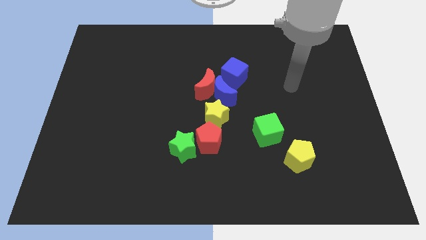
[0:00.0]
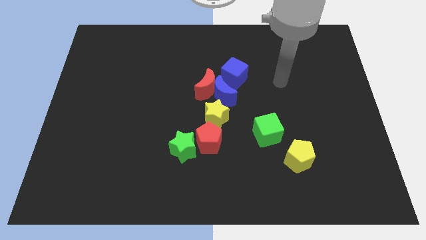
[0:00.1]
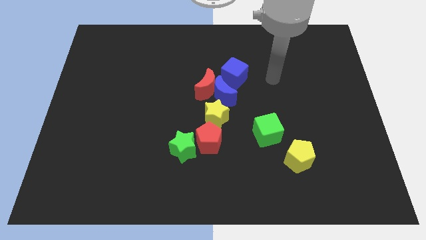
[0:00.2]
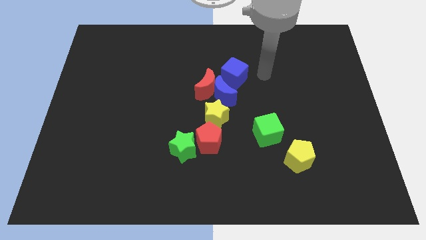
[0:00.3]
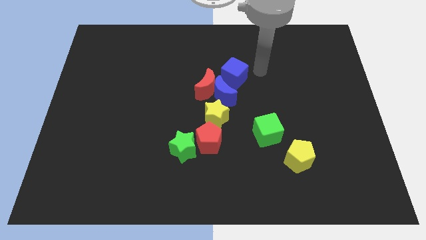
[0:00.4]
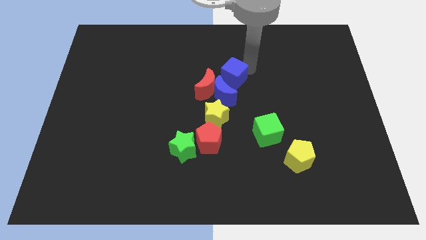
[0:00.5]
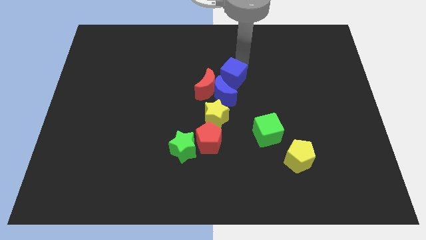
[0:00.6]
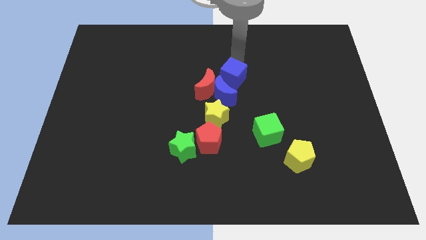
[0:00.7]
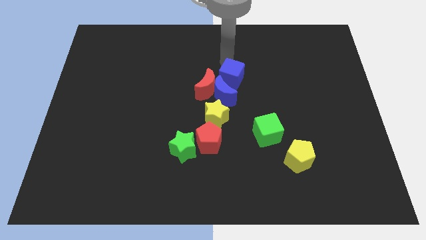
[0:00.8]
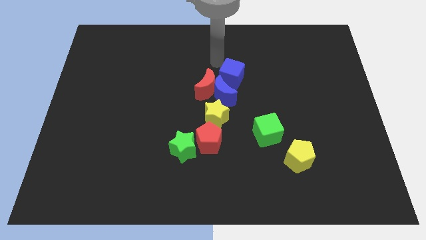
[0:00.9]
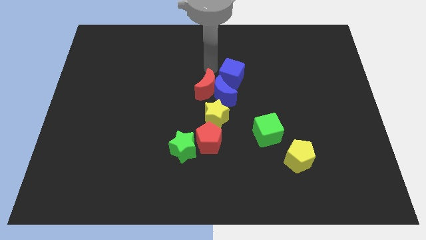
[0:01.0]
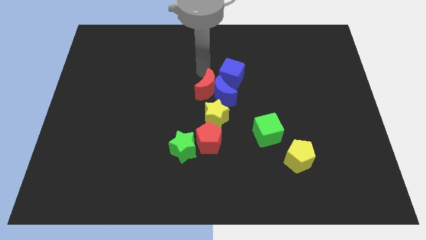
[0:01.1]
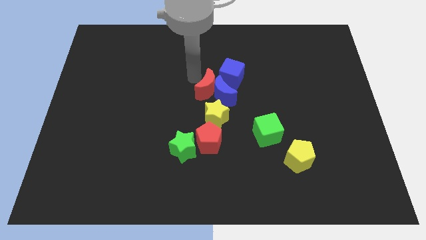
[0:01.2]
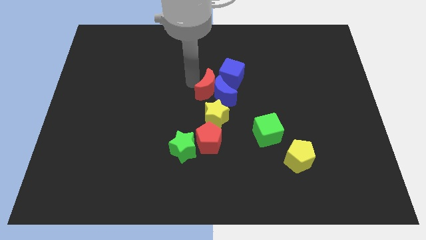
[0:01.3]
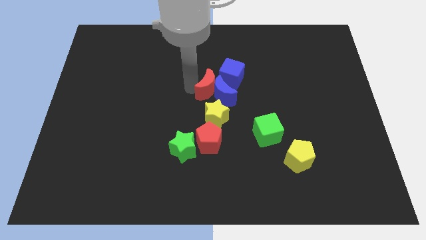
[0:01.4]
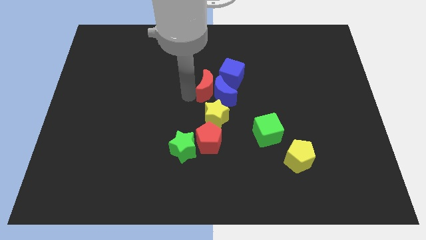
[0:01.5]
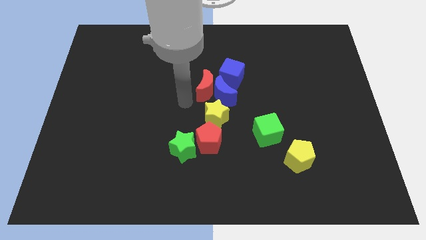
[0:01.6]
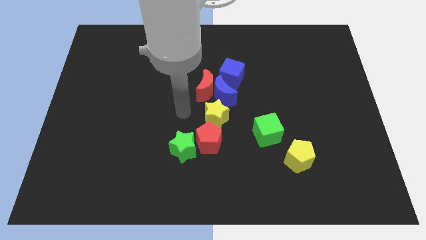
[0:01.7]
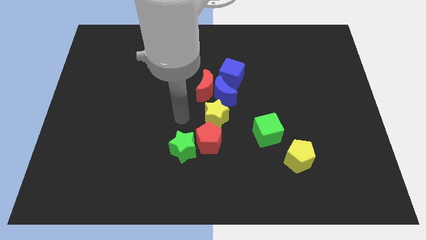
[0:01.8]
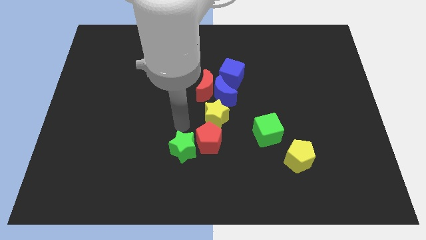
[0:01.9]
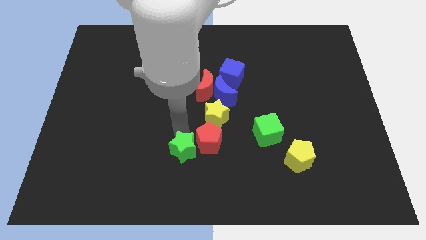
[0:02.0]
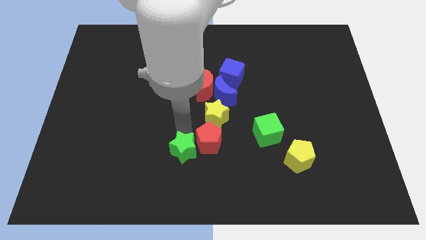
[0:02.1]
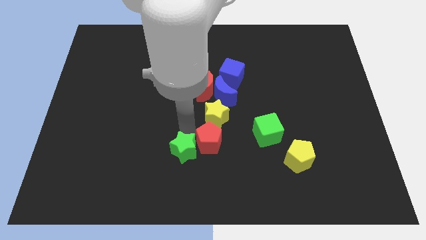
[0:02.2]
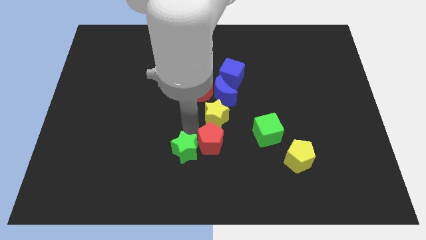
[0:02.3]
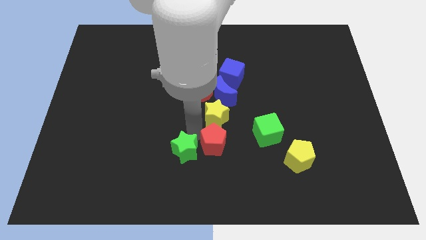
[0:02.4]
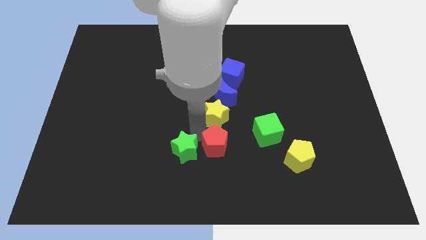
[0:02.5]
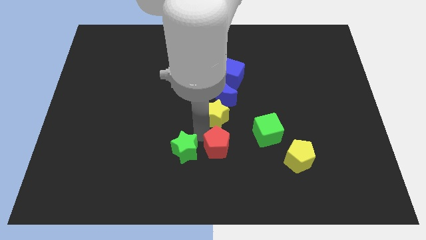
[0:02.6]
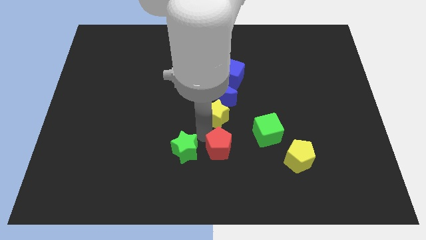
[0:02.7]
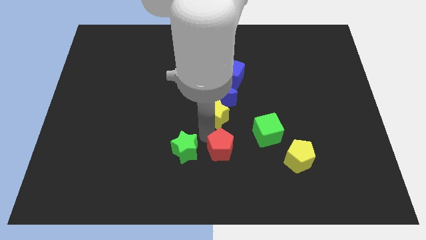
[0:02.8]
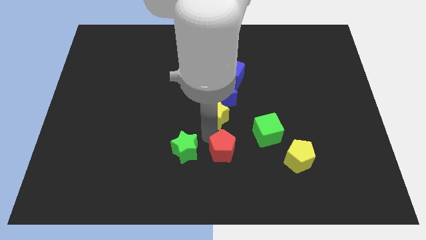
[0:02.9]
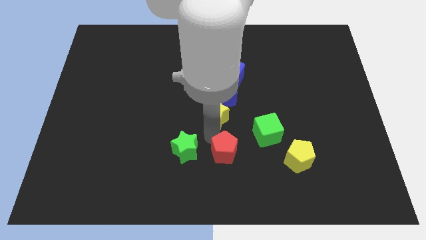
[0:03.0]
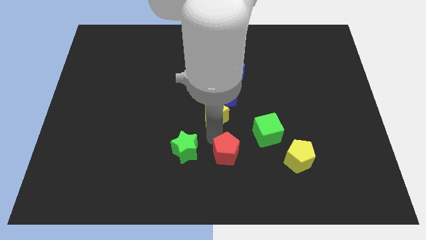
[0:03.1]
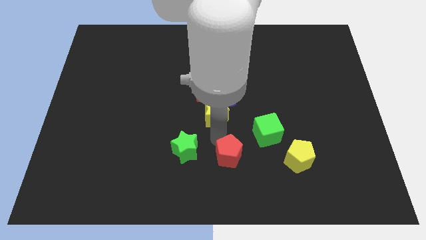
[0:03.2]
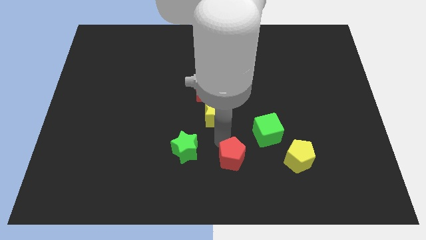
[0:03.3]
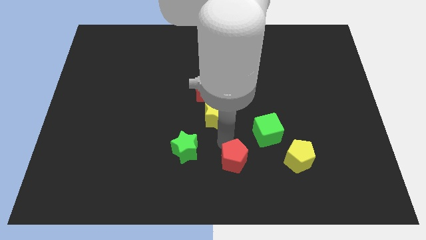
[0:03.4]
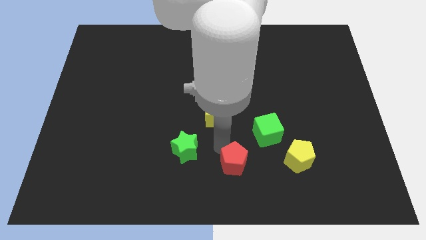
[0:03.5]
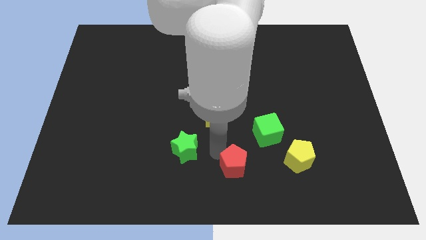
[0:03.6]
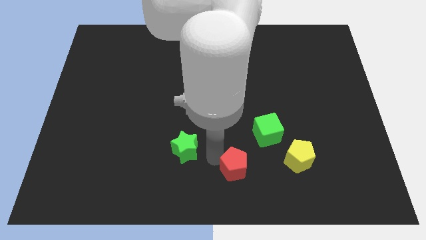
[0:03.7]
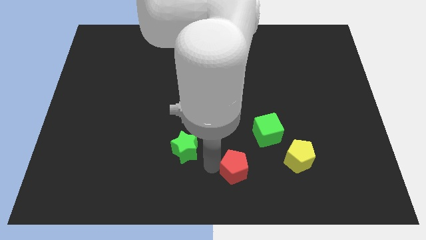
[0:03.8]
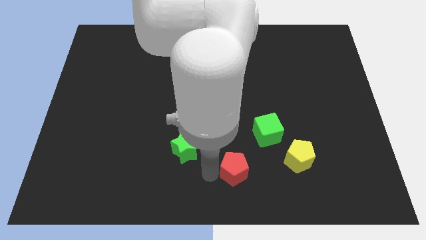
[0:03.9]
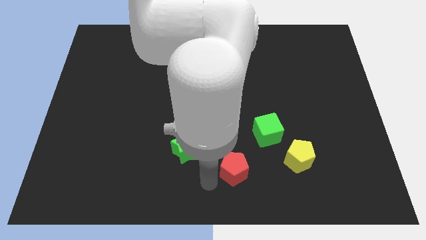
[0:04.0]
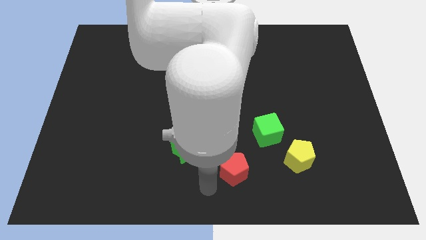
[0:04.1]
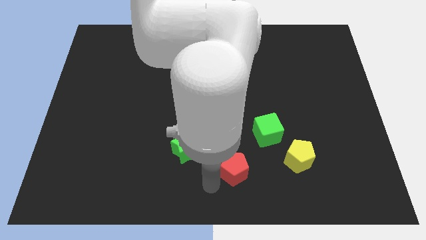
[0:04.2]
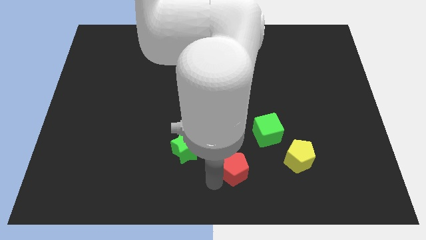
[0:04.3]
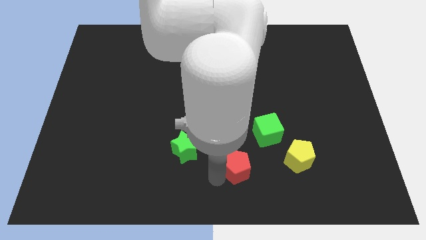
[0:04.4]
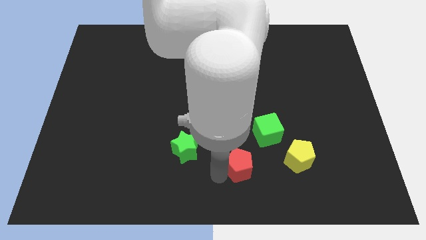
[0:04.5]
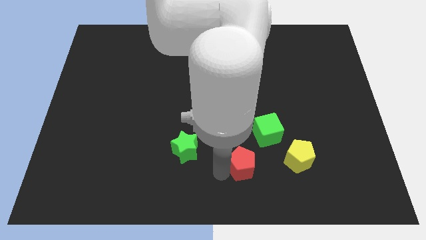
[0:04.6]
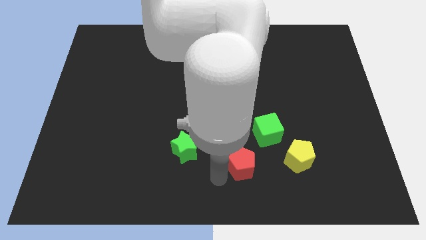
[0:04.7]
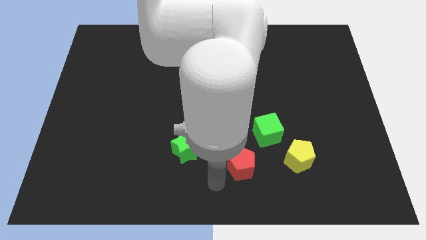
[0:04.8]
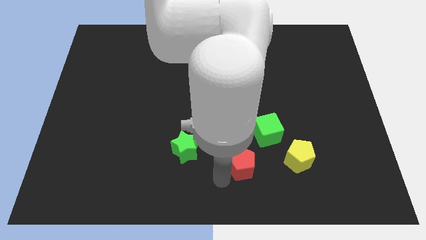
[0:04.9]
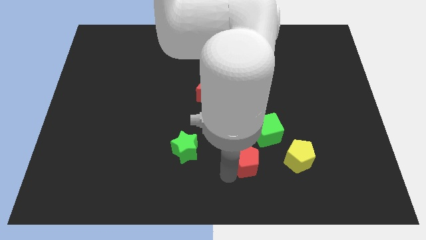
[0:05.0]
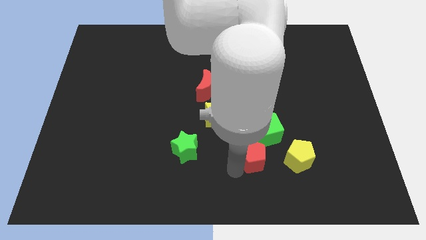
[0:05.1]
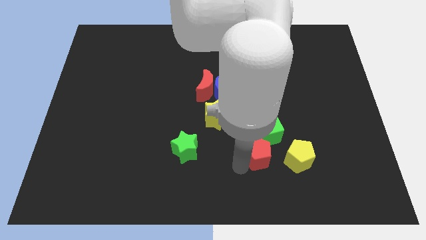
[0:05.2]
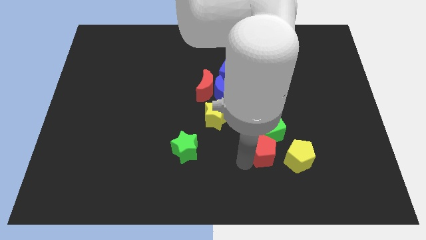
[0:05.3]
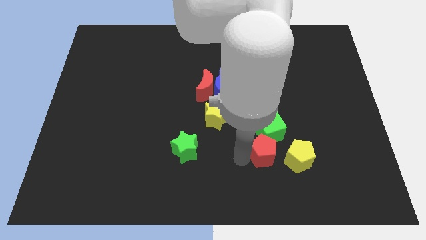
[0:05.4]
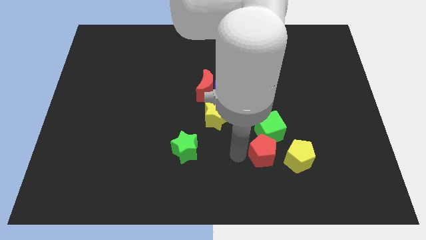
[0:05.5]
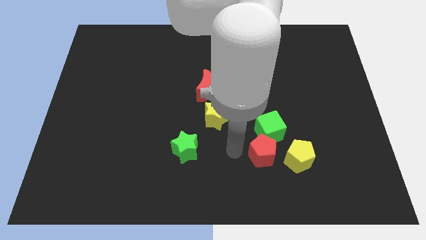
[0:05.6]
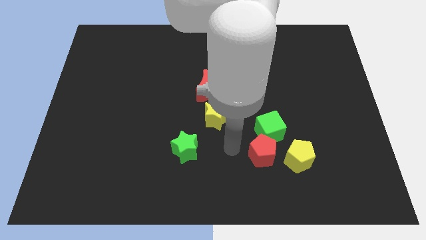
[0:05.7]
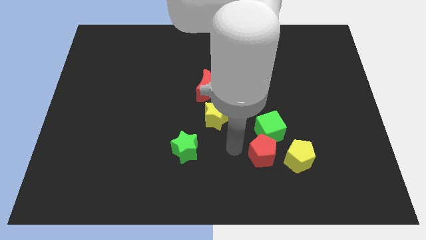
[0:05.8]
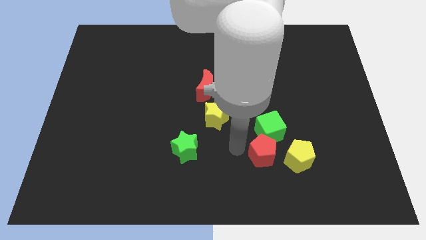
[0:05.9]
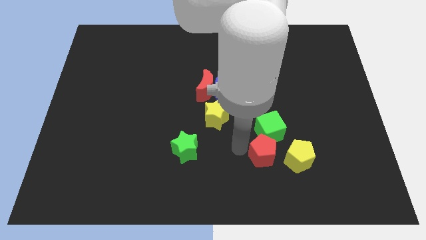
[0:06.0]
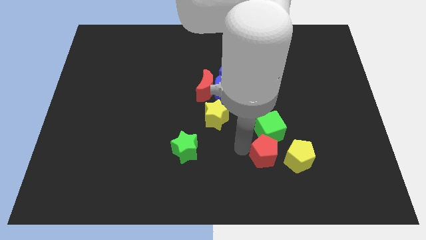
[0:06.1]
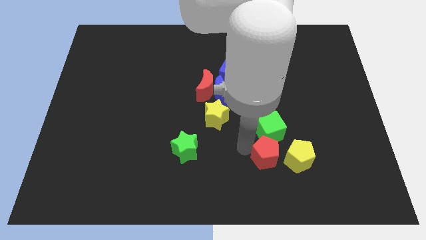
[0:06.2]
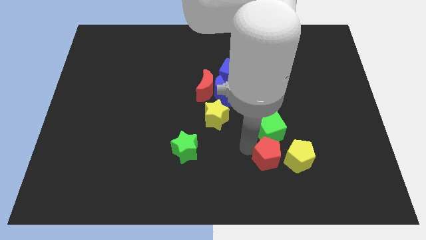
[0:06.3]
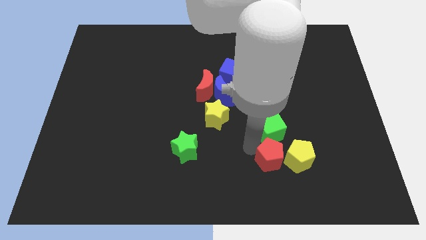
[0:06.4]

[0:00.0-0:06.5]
push the red pentagon towards the yellow pentagon

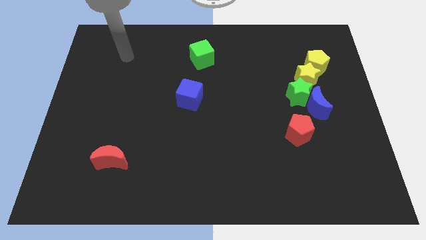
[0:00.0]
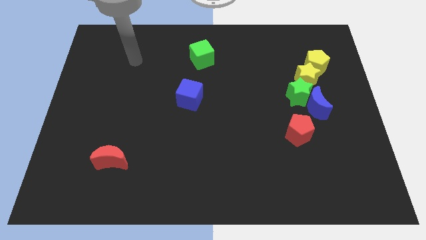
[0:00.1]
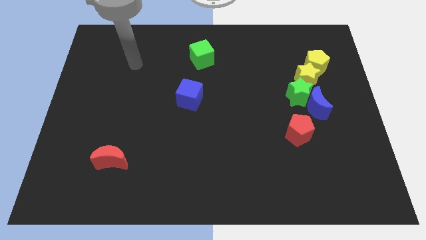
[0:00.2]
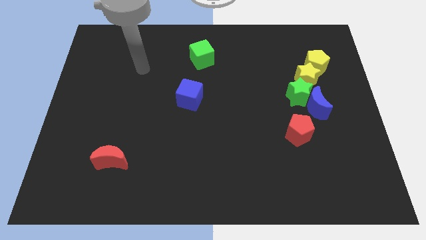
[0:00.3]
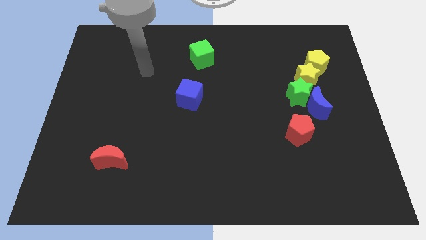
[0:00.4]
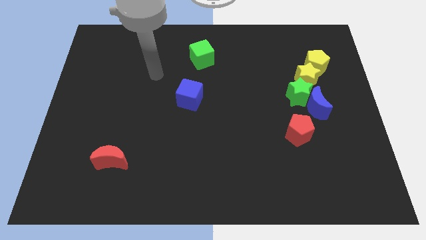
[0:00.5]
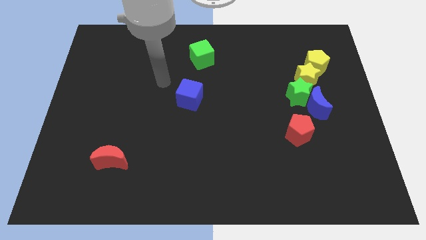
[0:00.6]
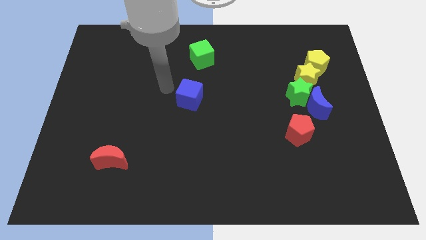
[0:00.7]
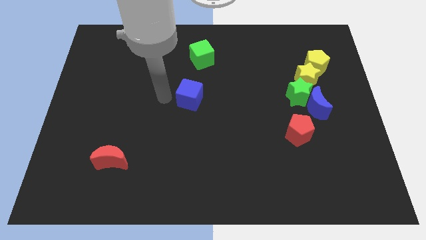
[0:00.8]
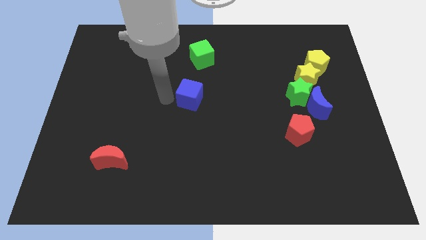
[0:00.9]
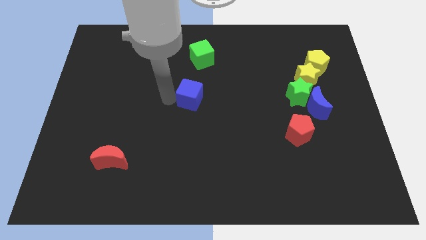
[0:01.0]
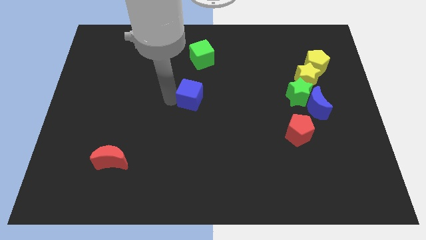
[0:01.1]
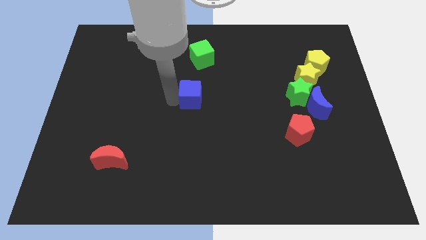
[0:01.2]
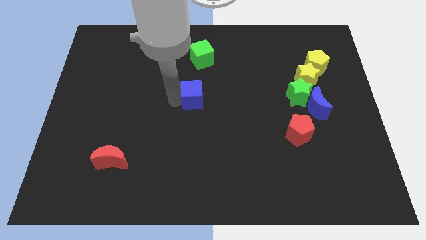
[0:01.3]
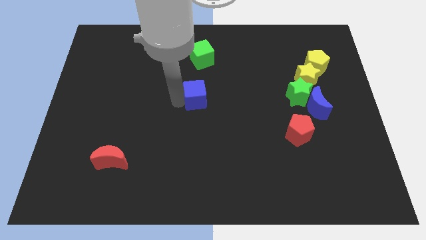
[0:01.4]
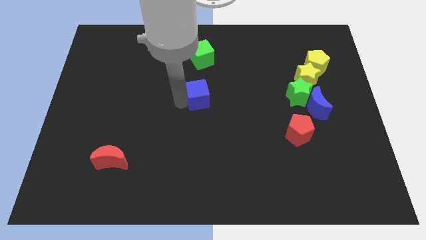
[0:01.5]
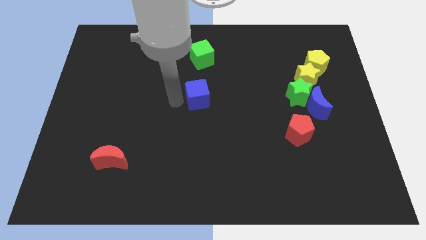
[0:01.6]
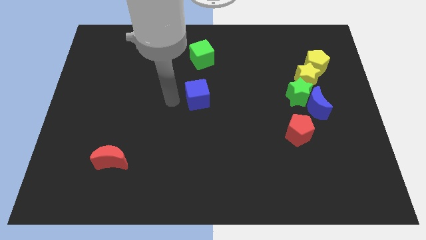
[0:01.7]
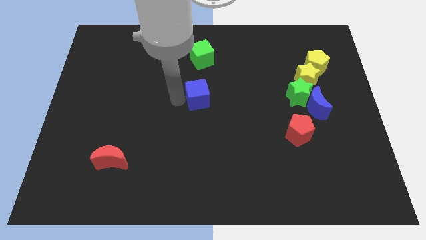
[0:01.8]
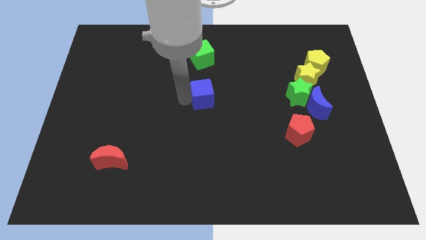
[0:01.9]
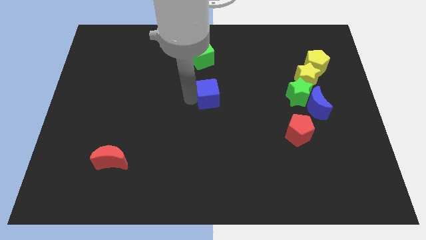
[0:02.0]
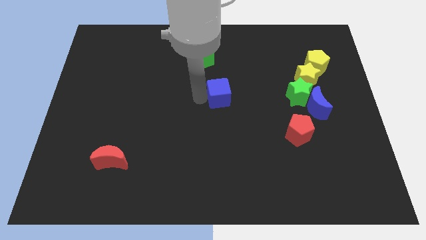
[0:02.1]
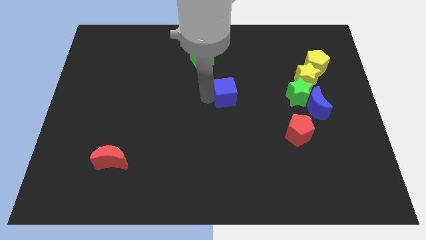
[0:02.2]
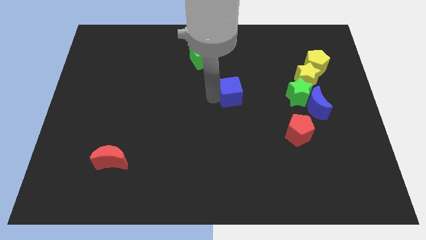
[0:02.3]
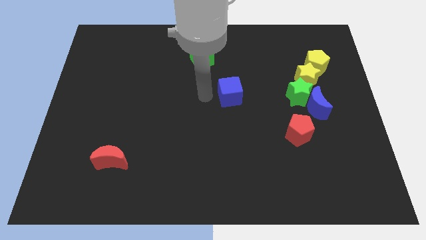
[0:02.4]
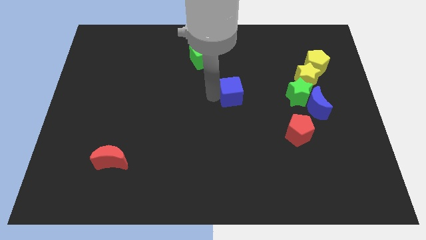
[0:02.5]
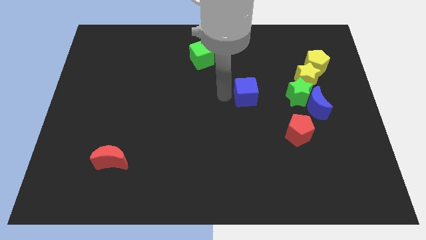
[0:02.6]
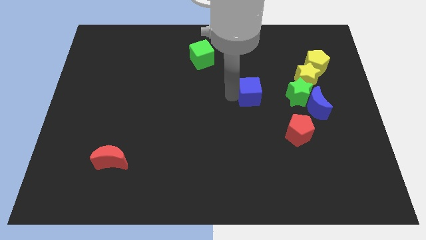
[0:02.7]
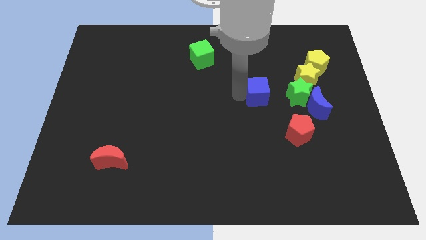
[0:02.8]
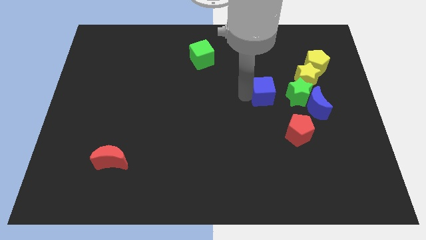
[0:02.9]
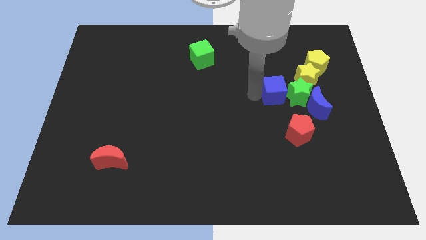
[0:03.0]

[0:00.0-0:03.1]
move the blue cube next to the green star
